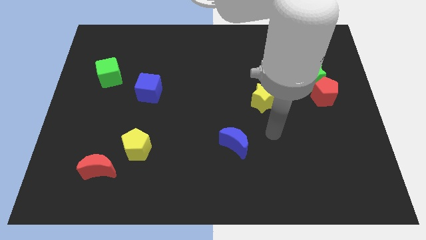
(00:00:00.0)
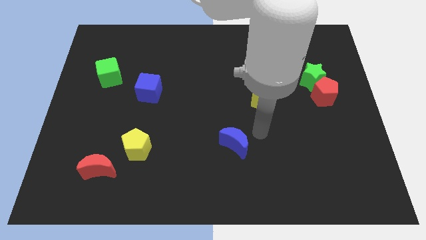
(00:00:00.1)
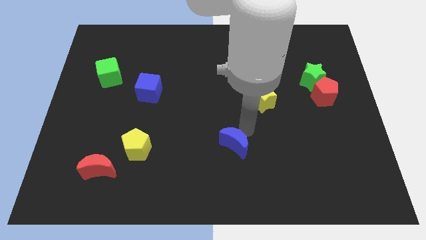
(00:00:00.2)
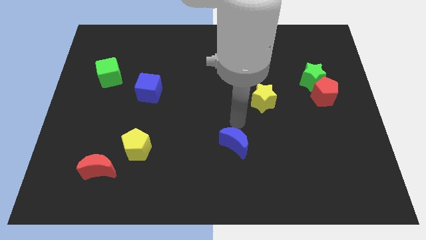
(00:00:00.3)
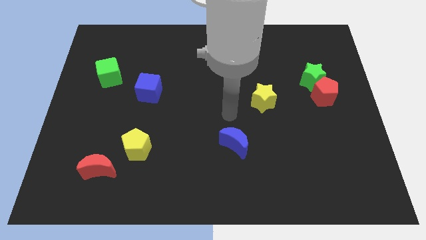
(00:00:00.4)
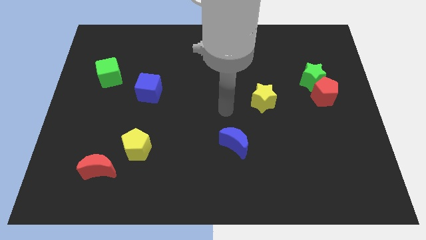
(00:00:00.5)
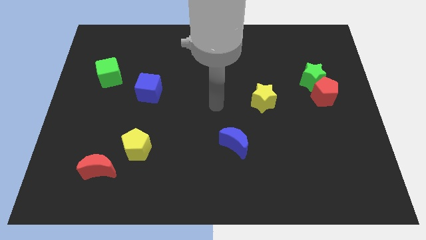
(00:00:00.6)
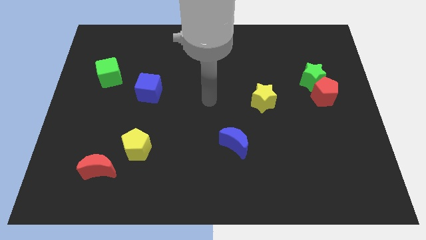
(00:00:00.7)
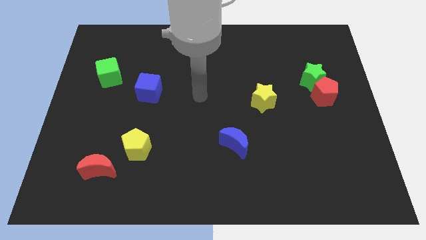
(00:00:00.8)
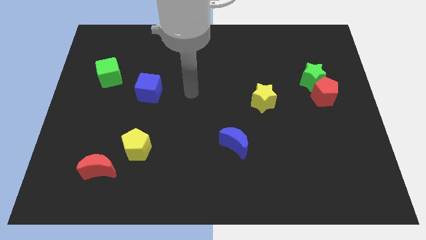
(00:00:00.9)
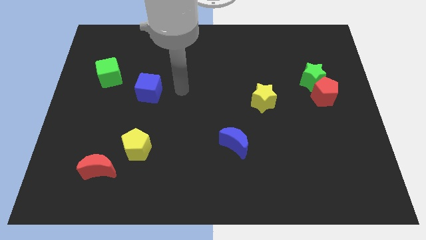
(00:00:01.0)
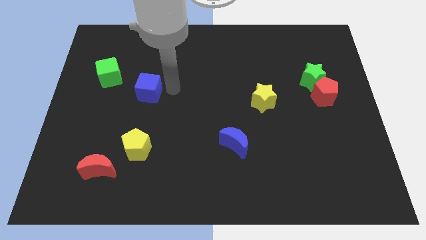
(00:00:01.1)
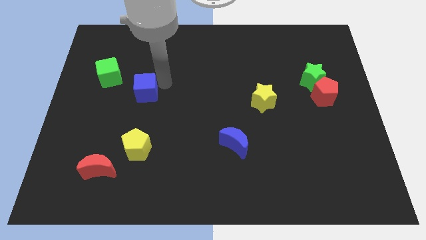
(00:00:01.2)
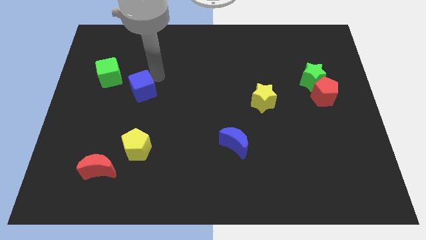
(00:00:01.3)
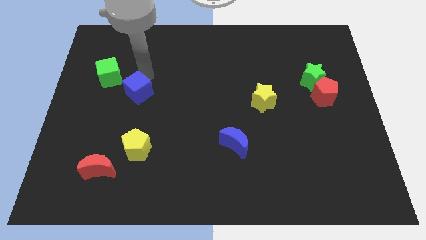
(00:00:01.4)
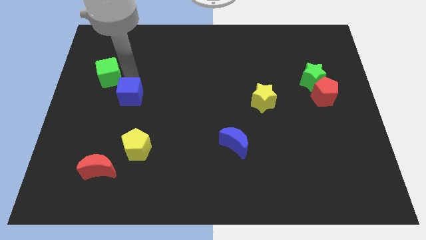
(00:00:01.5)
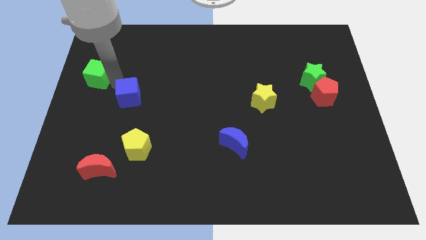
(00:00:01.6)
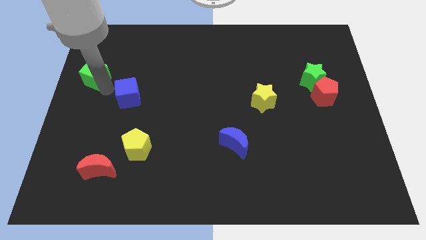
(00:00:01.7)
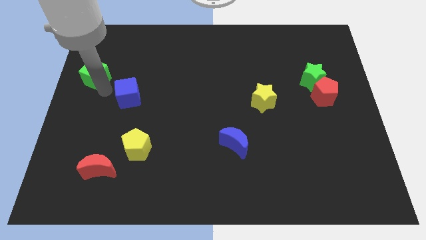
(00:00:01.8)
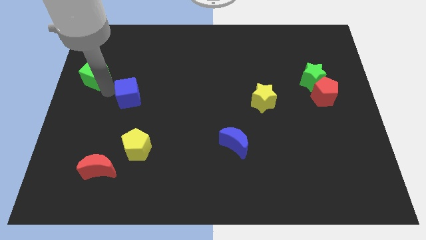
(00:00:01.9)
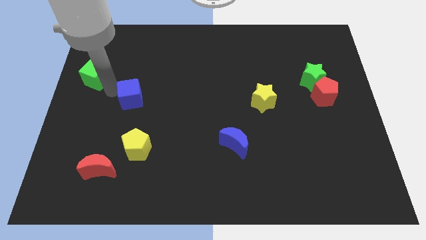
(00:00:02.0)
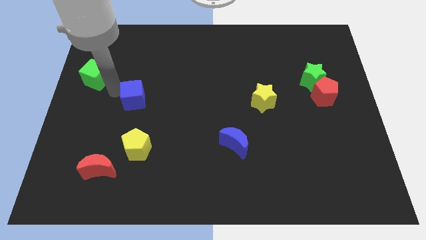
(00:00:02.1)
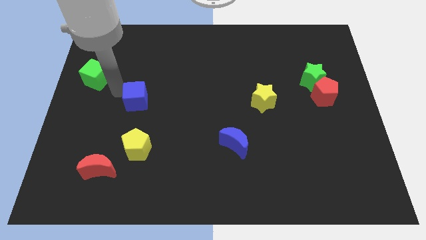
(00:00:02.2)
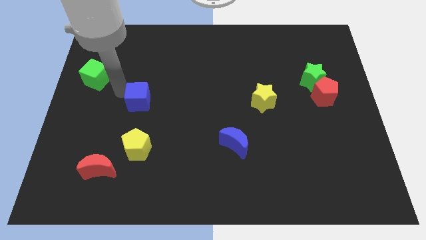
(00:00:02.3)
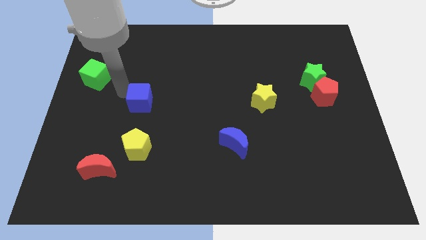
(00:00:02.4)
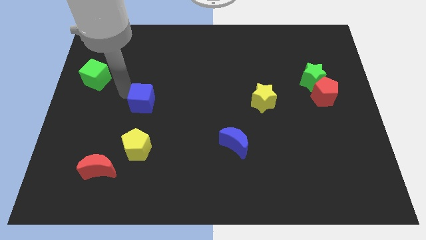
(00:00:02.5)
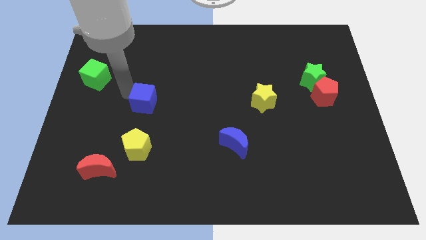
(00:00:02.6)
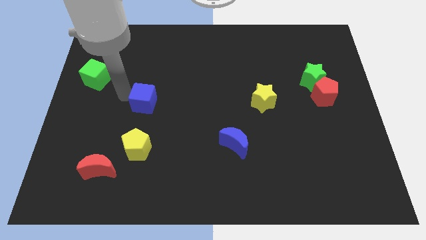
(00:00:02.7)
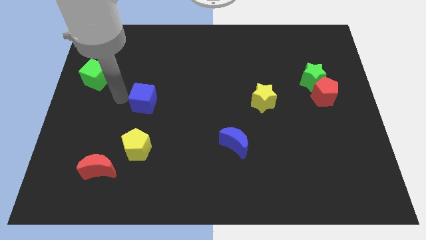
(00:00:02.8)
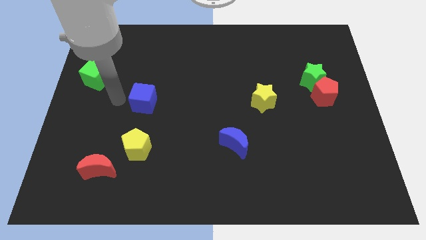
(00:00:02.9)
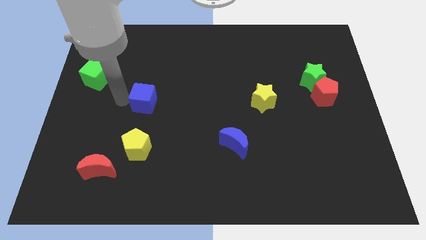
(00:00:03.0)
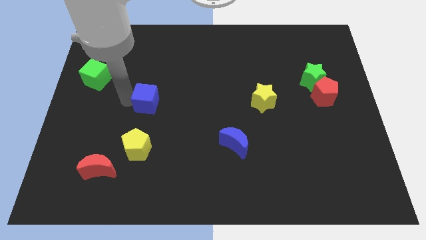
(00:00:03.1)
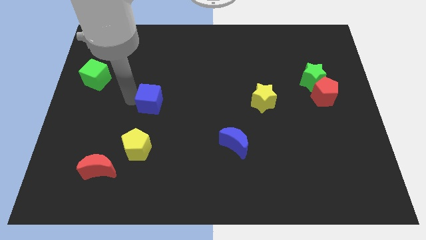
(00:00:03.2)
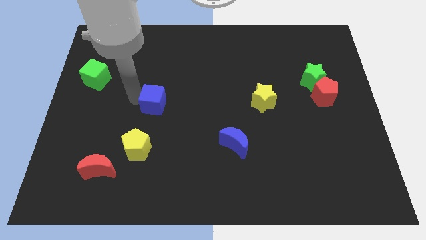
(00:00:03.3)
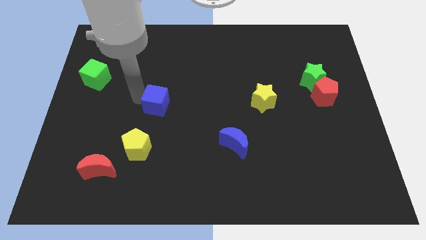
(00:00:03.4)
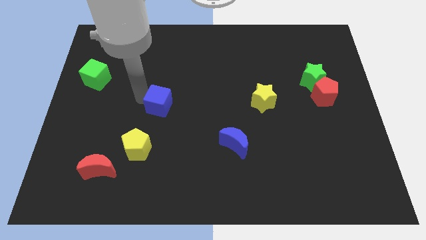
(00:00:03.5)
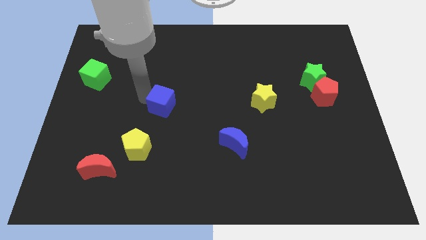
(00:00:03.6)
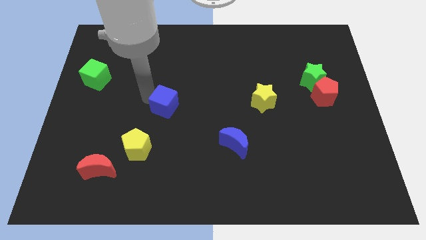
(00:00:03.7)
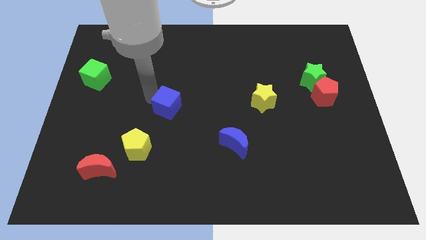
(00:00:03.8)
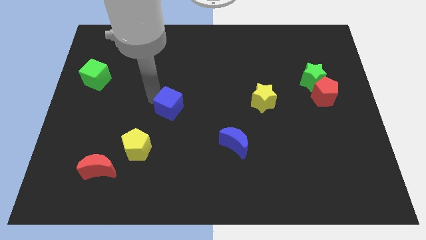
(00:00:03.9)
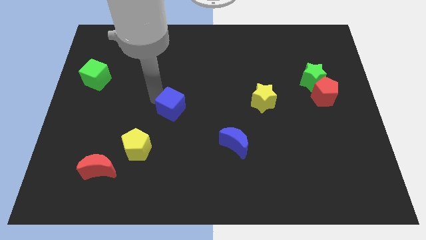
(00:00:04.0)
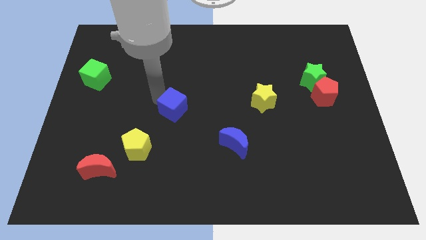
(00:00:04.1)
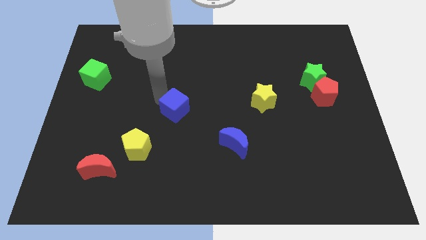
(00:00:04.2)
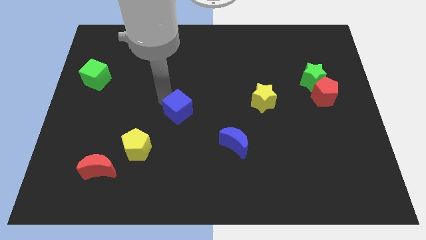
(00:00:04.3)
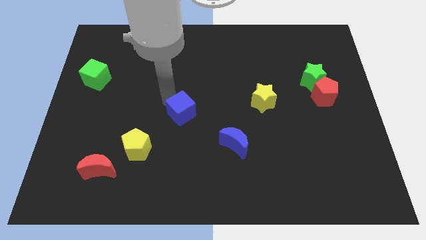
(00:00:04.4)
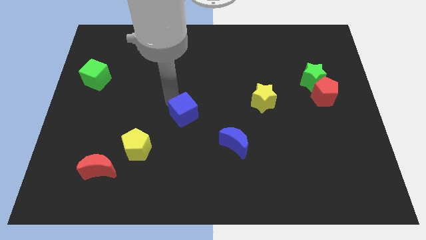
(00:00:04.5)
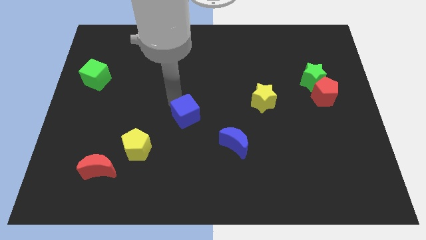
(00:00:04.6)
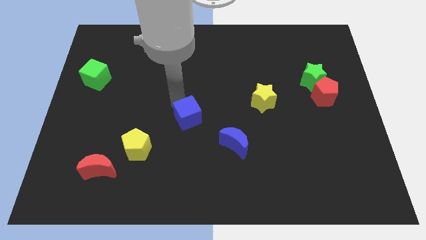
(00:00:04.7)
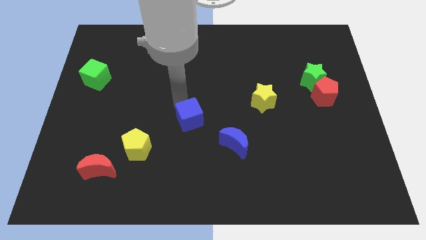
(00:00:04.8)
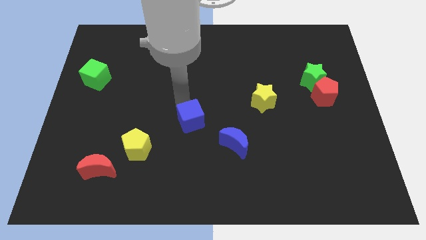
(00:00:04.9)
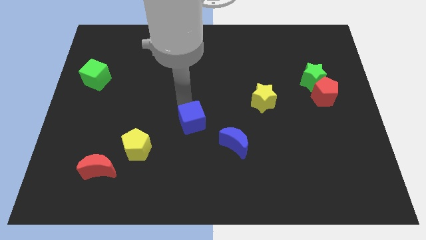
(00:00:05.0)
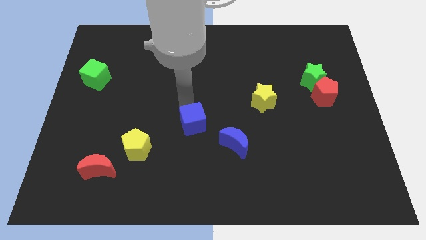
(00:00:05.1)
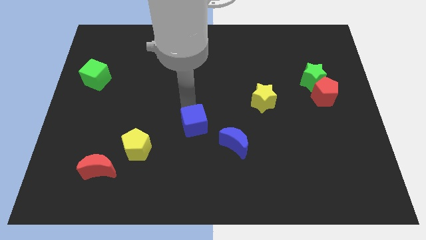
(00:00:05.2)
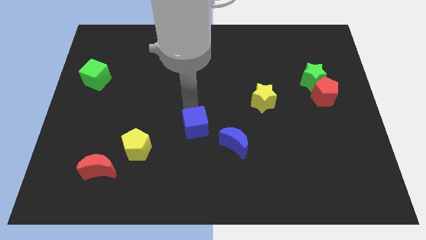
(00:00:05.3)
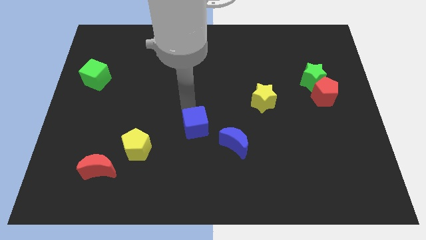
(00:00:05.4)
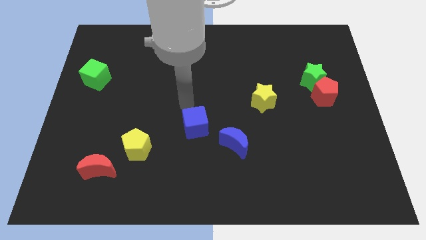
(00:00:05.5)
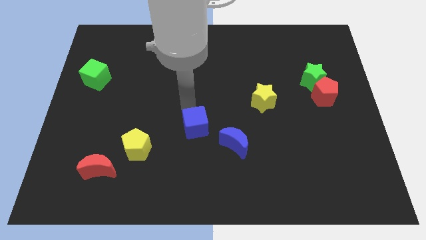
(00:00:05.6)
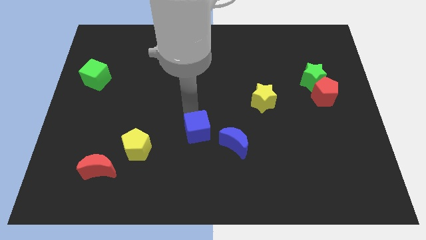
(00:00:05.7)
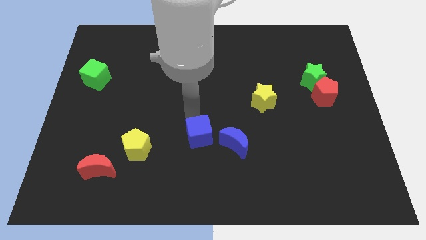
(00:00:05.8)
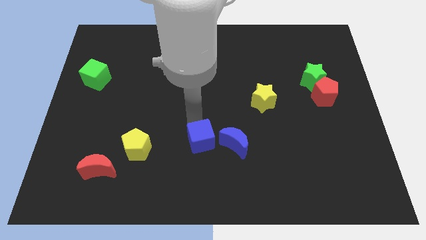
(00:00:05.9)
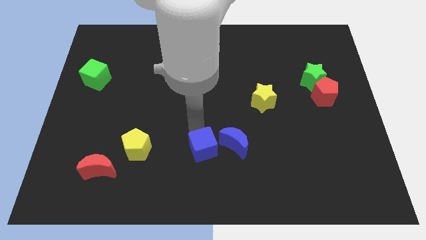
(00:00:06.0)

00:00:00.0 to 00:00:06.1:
push the blue cube downwards and then right

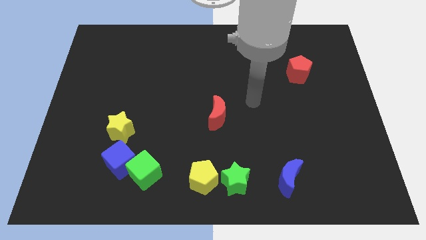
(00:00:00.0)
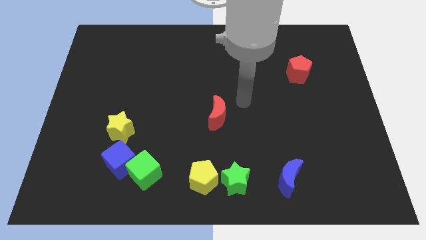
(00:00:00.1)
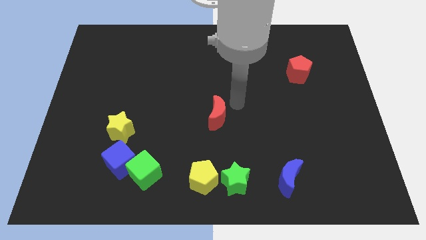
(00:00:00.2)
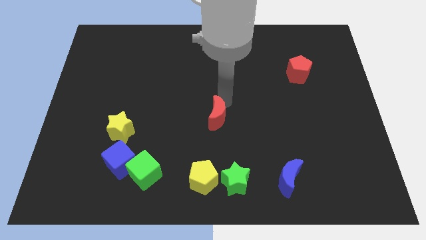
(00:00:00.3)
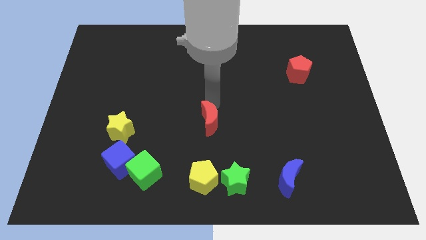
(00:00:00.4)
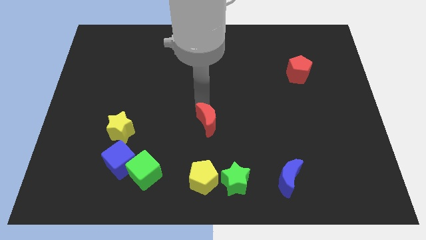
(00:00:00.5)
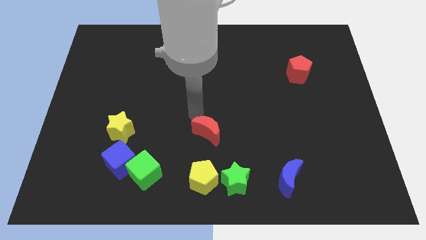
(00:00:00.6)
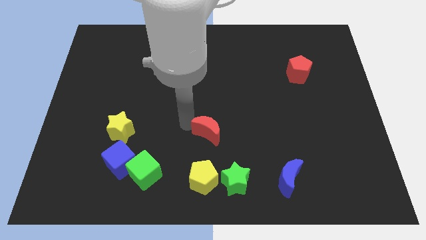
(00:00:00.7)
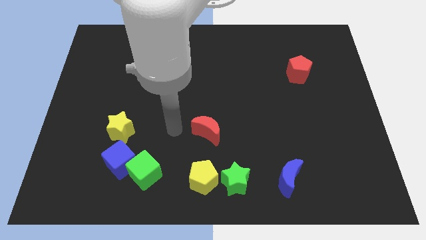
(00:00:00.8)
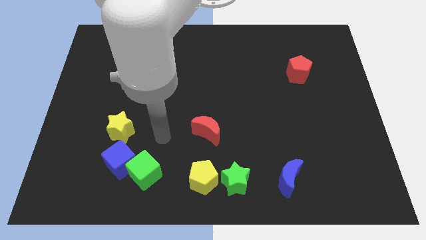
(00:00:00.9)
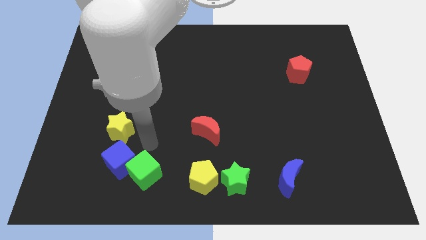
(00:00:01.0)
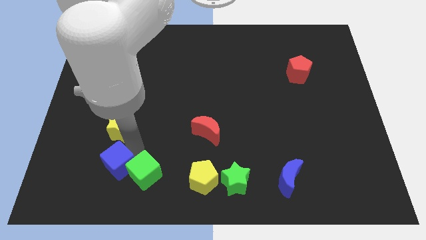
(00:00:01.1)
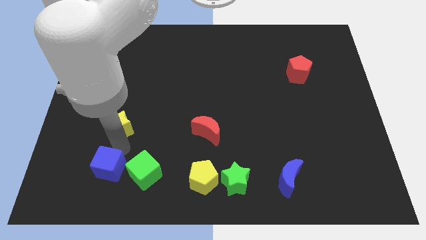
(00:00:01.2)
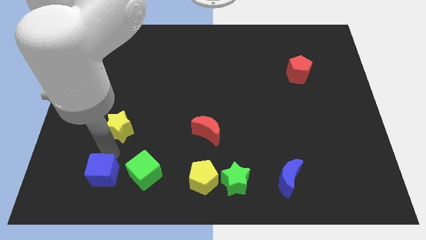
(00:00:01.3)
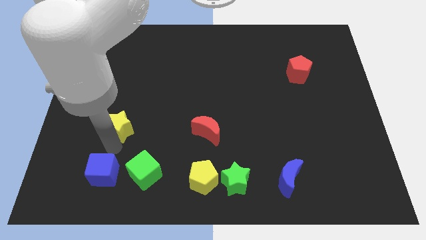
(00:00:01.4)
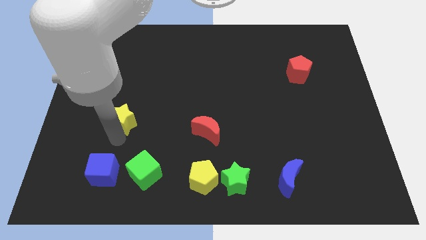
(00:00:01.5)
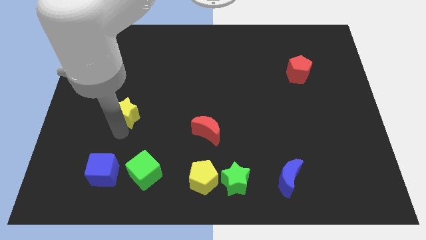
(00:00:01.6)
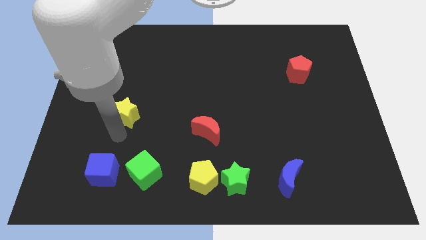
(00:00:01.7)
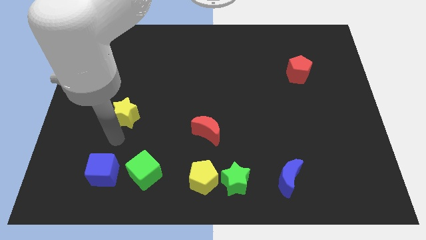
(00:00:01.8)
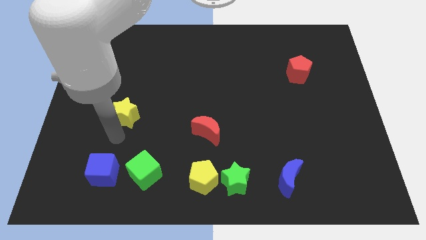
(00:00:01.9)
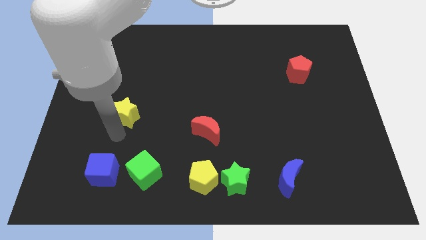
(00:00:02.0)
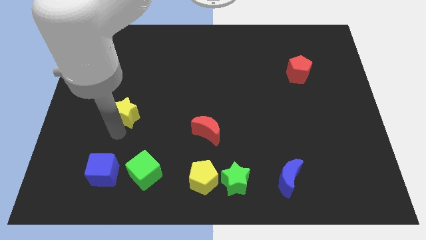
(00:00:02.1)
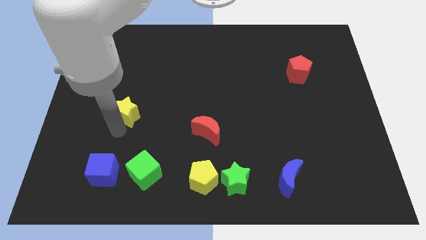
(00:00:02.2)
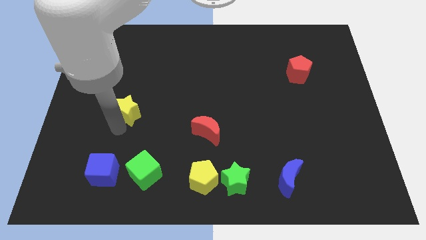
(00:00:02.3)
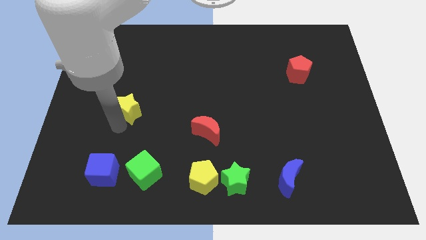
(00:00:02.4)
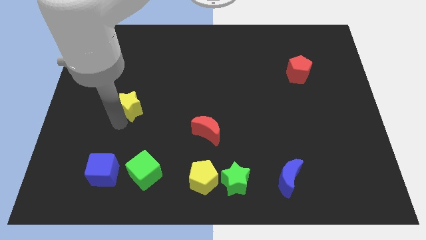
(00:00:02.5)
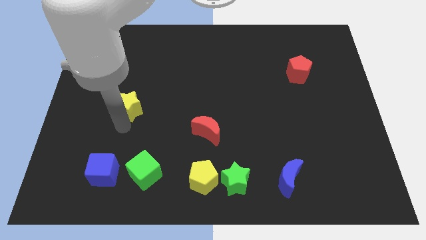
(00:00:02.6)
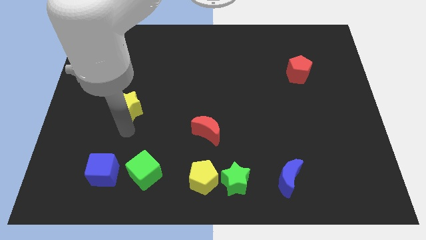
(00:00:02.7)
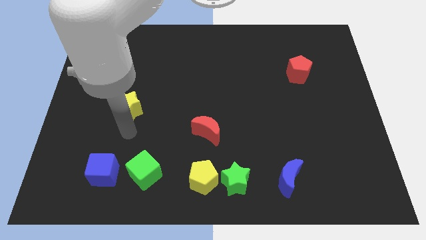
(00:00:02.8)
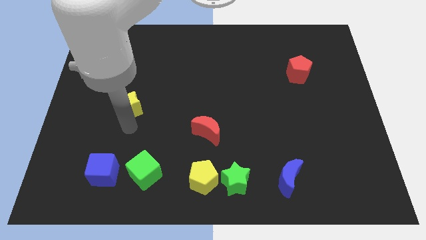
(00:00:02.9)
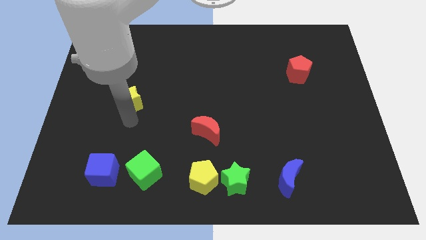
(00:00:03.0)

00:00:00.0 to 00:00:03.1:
move the yellow star a little upwards
